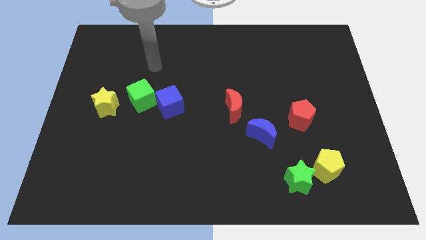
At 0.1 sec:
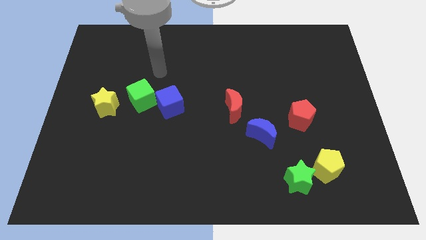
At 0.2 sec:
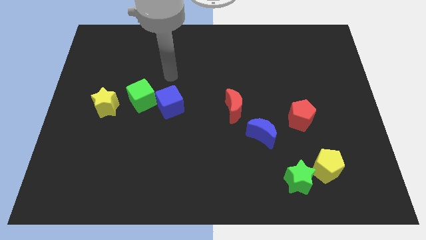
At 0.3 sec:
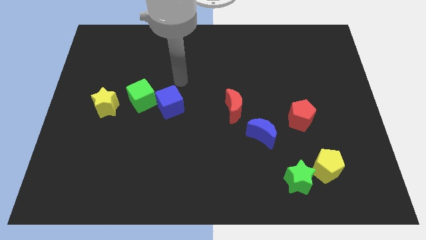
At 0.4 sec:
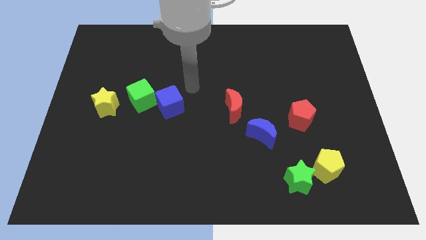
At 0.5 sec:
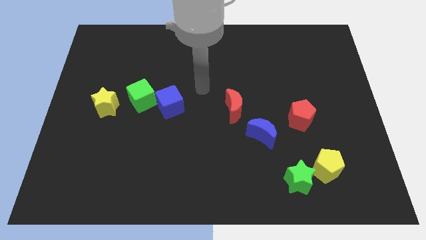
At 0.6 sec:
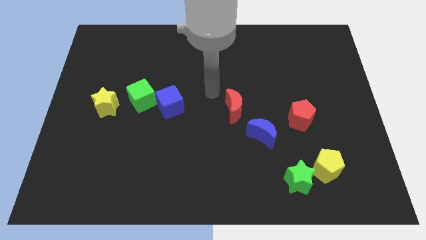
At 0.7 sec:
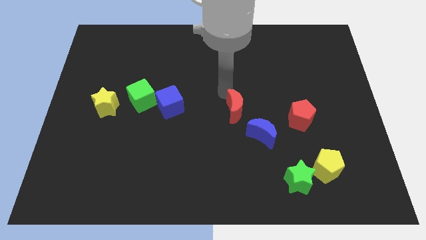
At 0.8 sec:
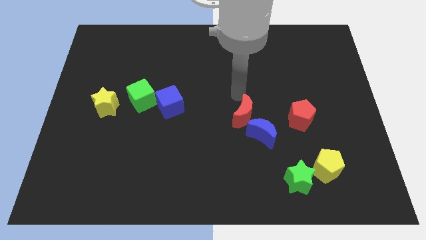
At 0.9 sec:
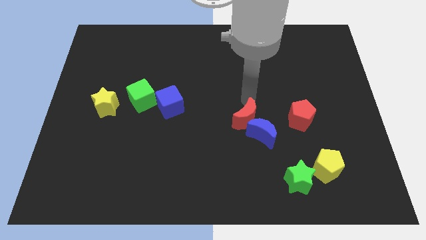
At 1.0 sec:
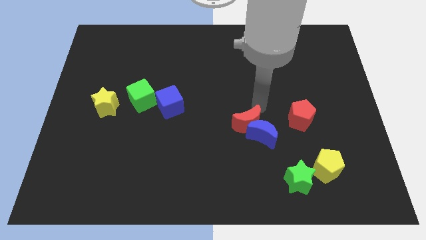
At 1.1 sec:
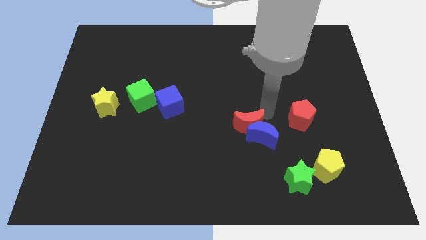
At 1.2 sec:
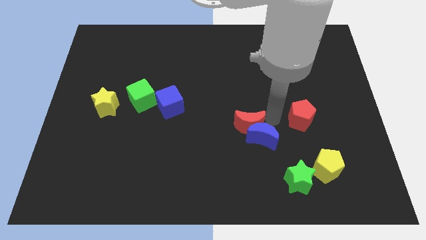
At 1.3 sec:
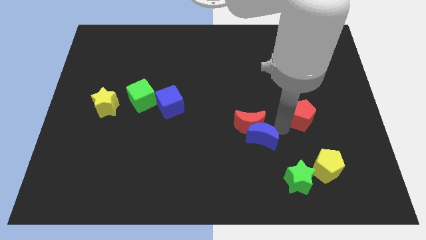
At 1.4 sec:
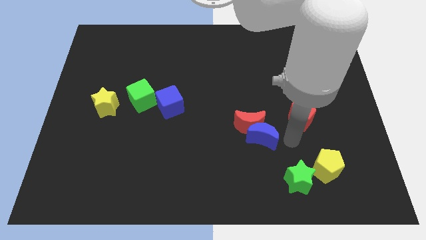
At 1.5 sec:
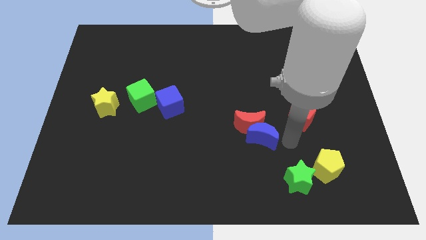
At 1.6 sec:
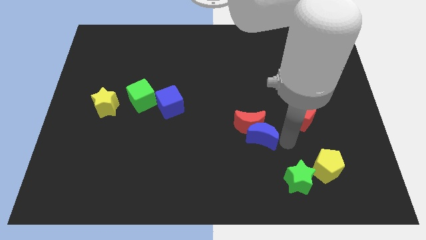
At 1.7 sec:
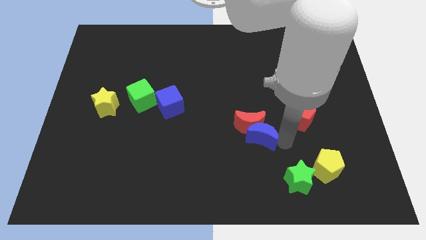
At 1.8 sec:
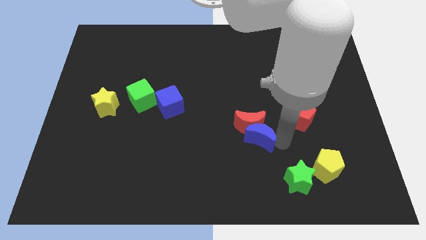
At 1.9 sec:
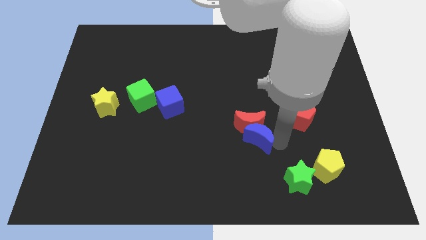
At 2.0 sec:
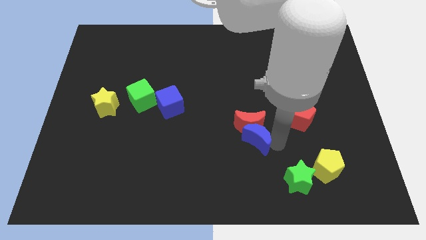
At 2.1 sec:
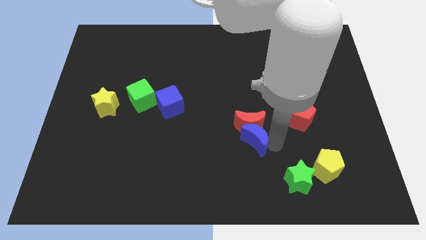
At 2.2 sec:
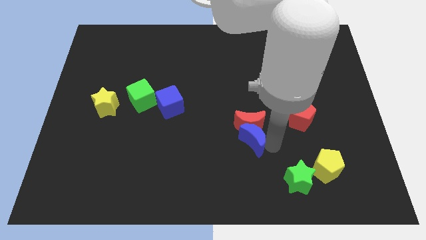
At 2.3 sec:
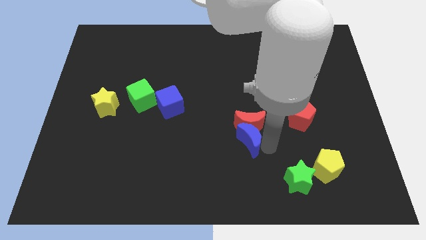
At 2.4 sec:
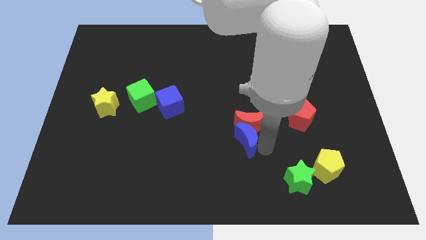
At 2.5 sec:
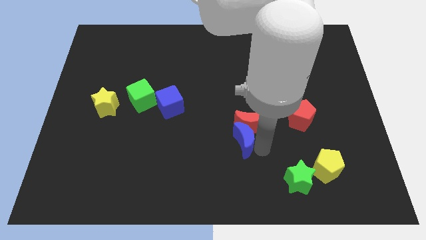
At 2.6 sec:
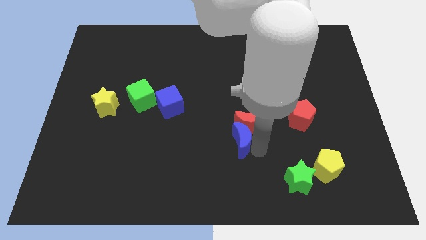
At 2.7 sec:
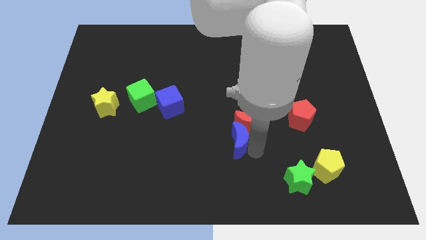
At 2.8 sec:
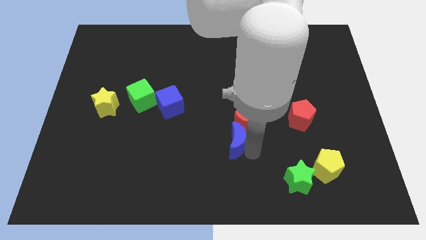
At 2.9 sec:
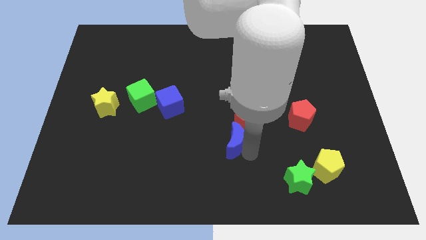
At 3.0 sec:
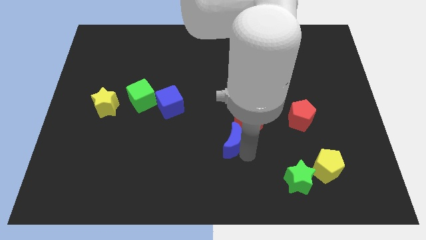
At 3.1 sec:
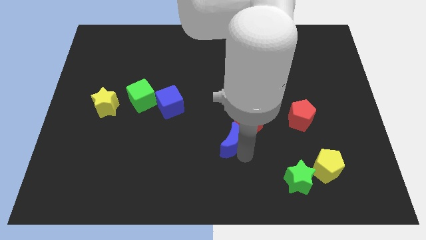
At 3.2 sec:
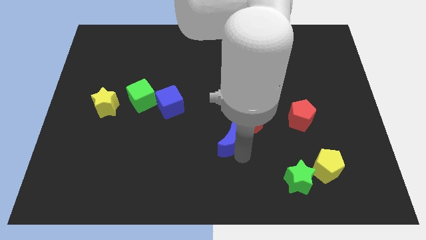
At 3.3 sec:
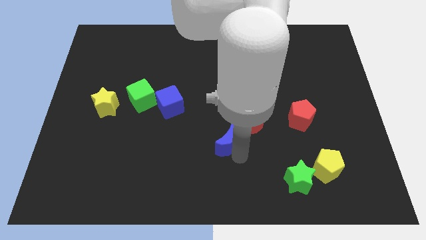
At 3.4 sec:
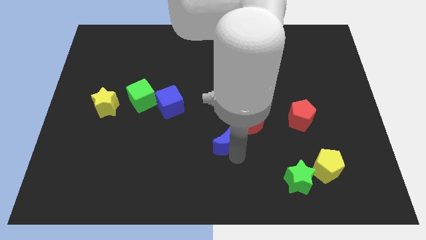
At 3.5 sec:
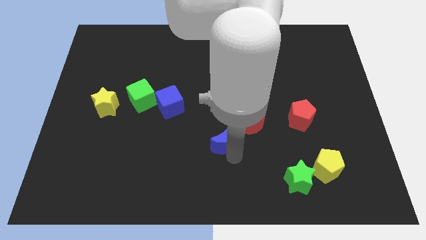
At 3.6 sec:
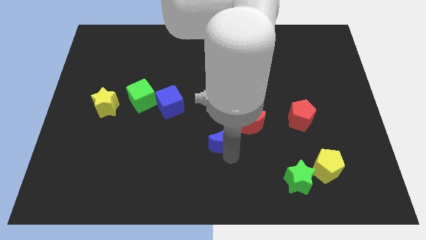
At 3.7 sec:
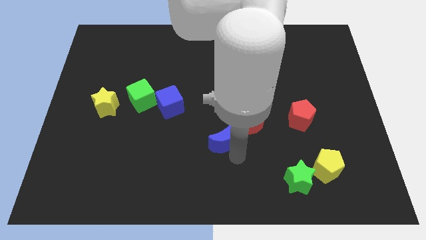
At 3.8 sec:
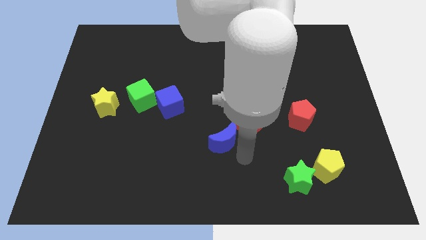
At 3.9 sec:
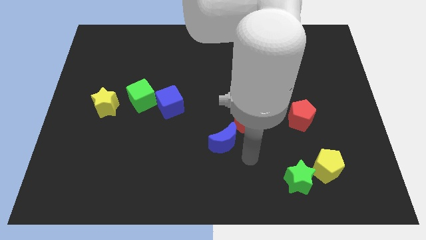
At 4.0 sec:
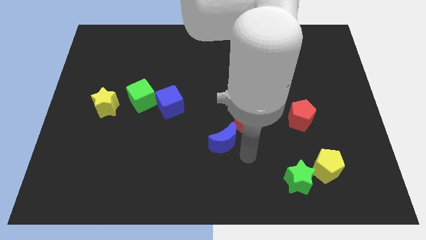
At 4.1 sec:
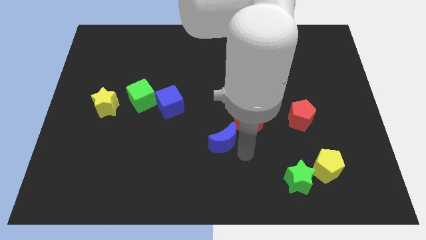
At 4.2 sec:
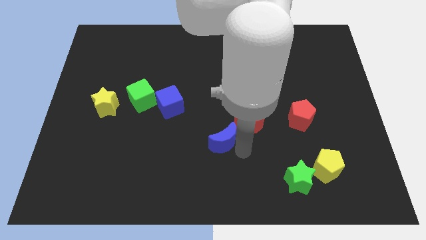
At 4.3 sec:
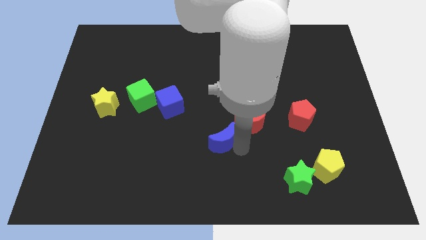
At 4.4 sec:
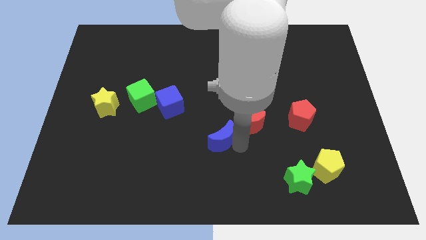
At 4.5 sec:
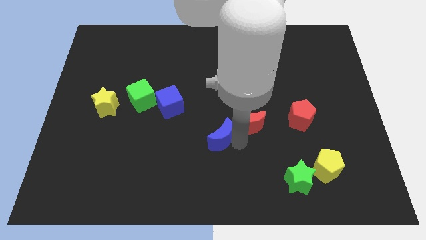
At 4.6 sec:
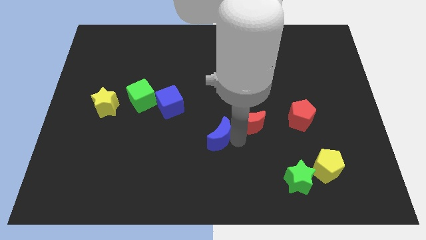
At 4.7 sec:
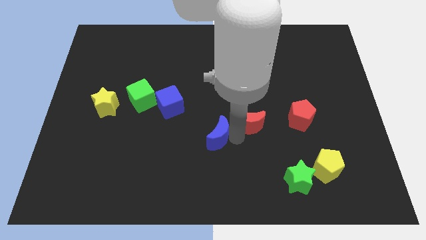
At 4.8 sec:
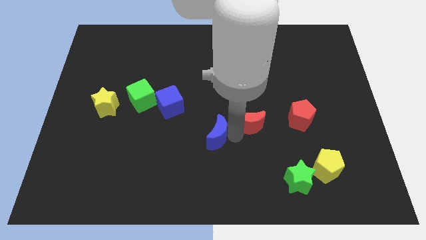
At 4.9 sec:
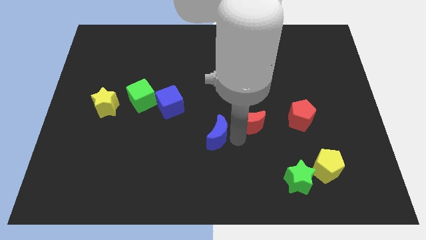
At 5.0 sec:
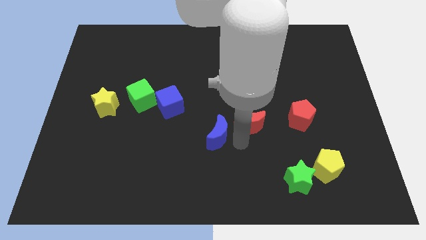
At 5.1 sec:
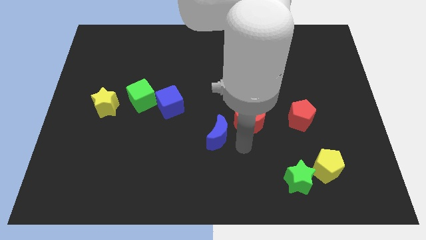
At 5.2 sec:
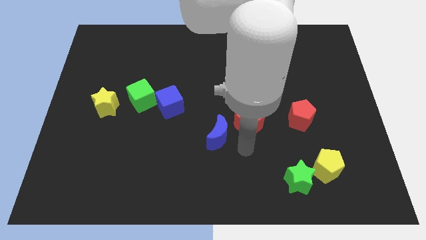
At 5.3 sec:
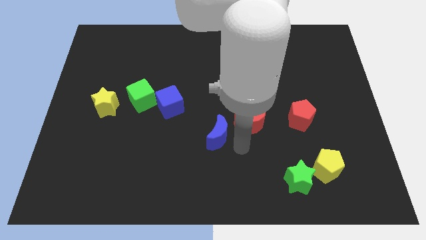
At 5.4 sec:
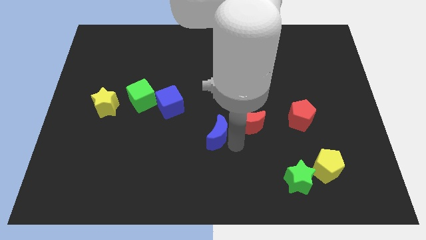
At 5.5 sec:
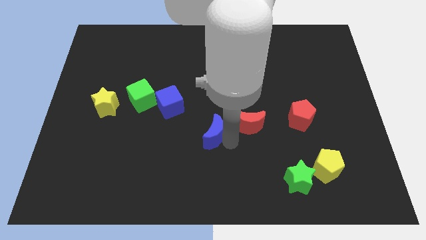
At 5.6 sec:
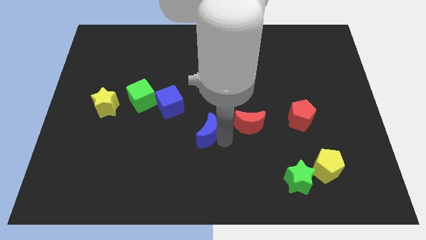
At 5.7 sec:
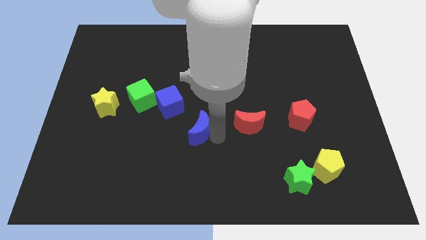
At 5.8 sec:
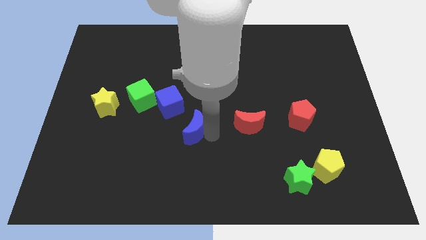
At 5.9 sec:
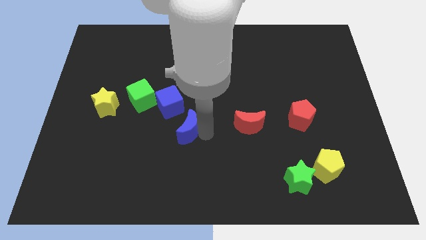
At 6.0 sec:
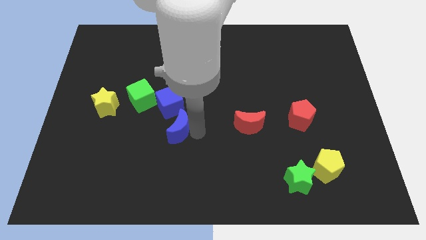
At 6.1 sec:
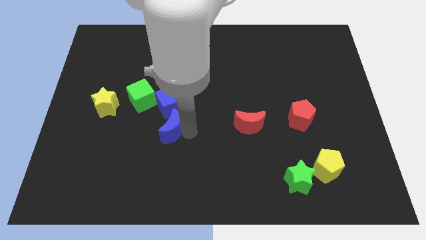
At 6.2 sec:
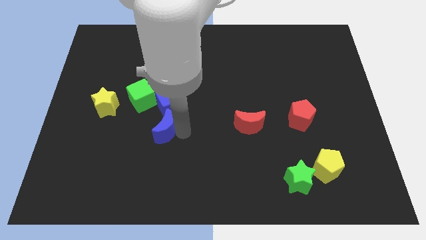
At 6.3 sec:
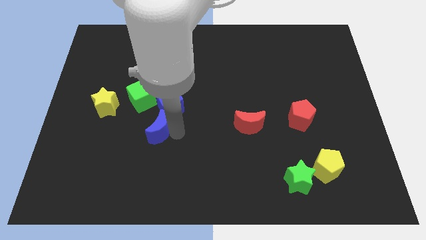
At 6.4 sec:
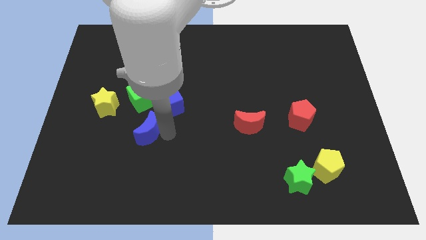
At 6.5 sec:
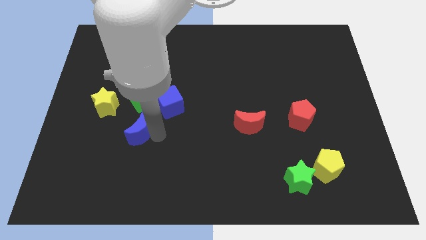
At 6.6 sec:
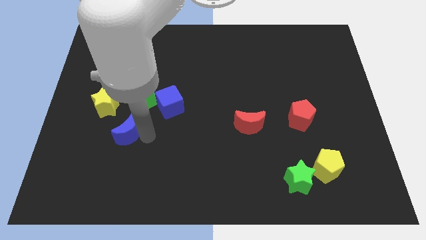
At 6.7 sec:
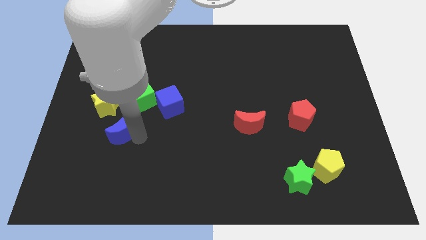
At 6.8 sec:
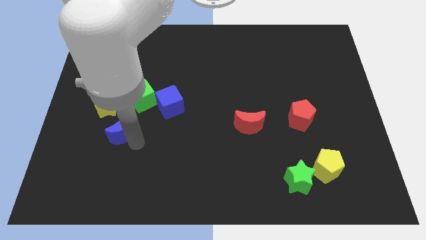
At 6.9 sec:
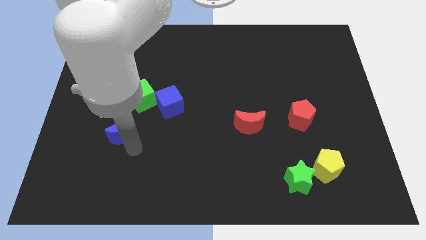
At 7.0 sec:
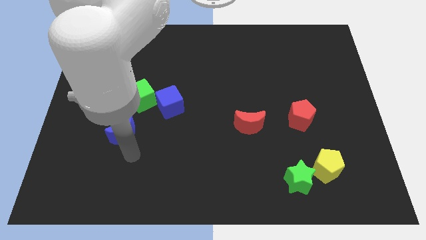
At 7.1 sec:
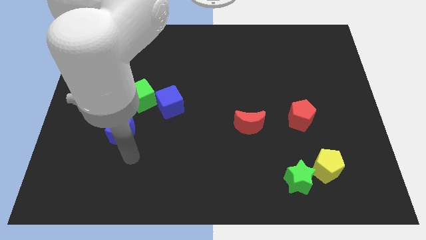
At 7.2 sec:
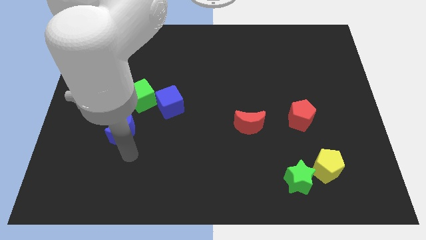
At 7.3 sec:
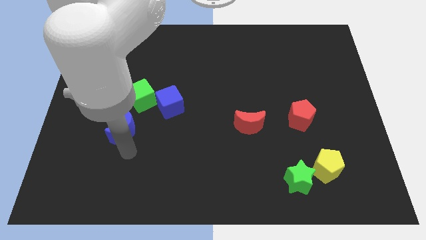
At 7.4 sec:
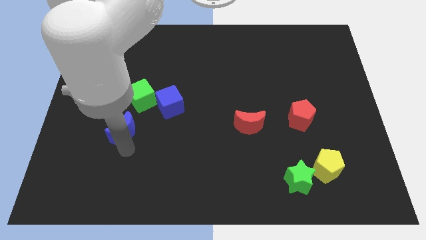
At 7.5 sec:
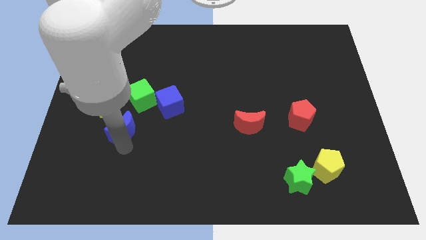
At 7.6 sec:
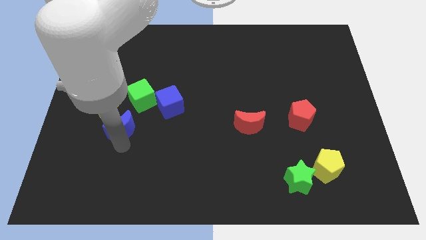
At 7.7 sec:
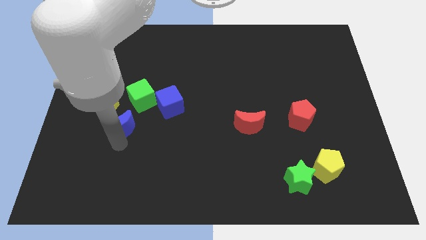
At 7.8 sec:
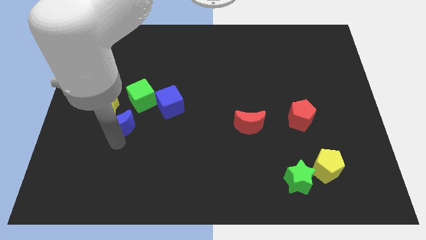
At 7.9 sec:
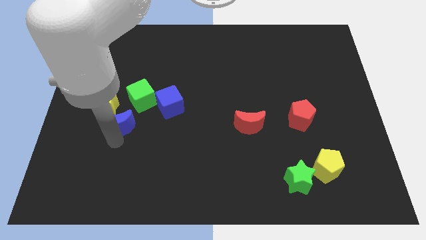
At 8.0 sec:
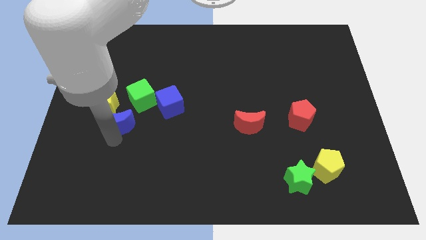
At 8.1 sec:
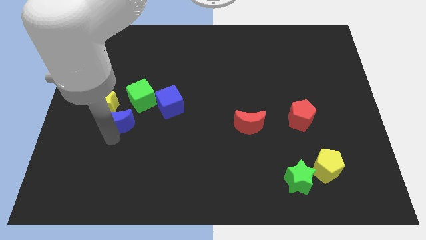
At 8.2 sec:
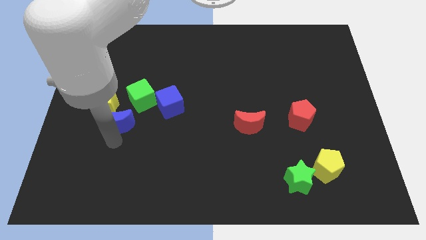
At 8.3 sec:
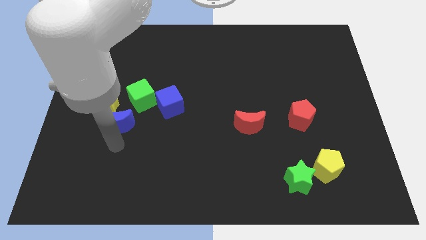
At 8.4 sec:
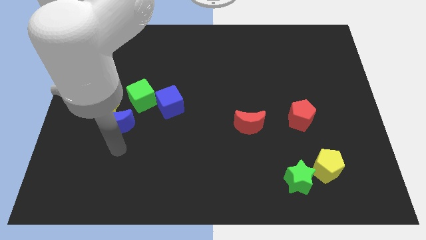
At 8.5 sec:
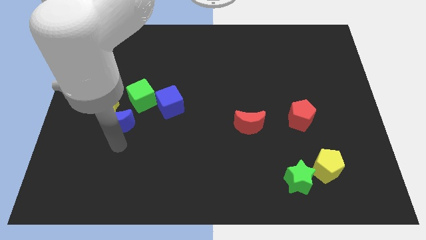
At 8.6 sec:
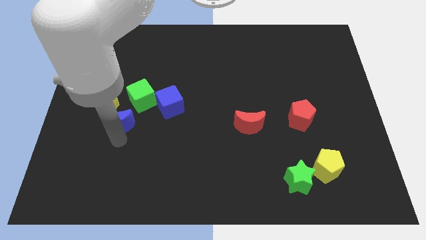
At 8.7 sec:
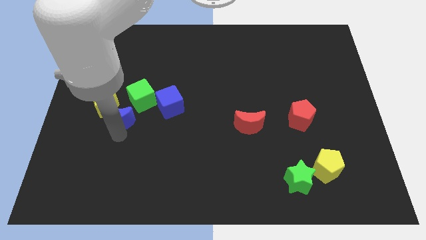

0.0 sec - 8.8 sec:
put the blue moon to the yellow star
